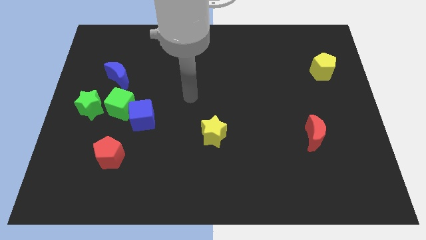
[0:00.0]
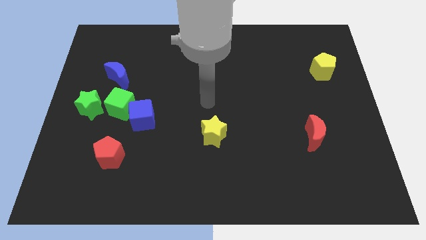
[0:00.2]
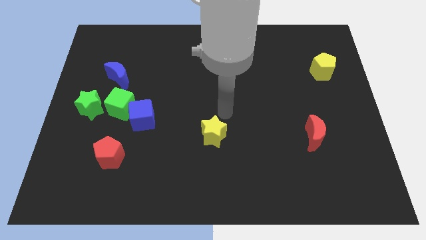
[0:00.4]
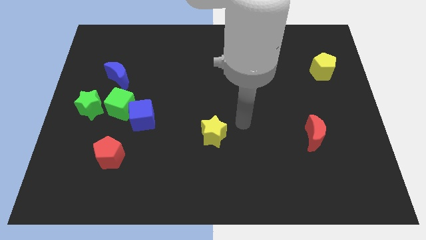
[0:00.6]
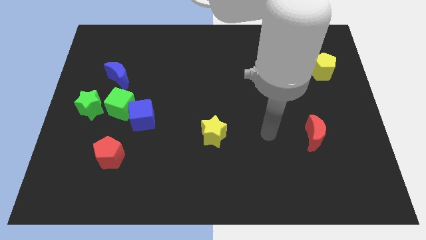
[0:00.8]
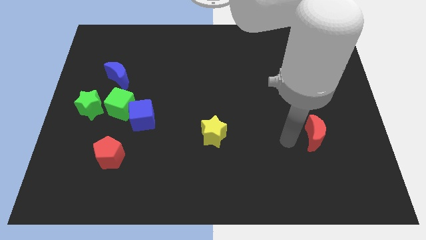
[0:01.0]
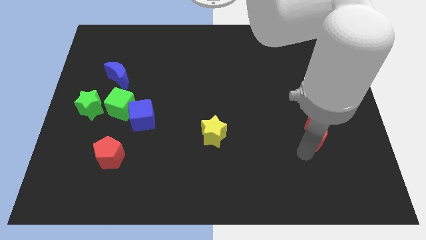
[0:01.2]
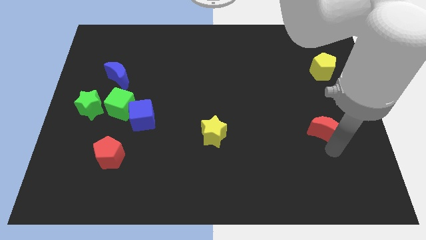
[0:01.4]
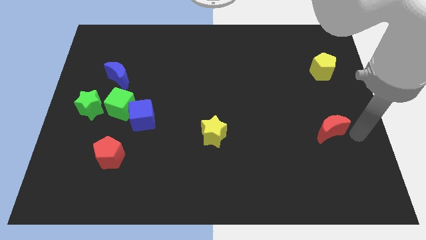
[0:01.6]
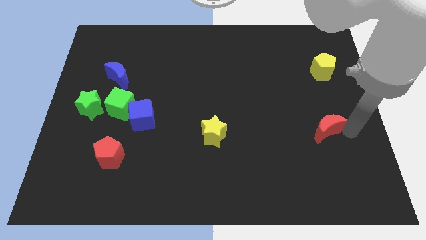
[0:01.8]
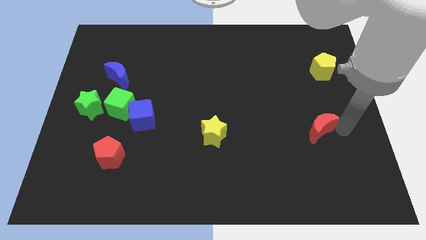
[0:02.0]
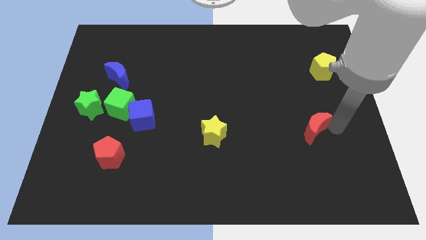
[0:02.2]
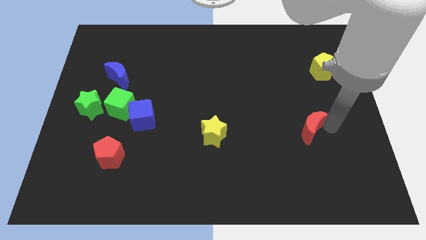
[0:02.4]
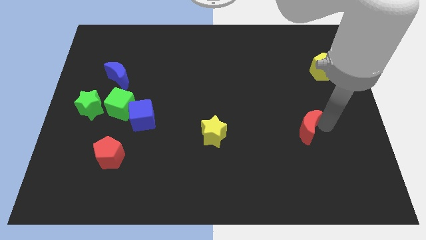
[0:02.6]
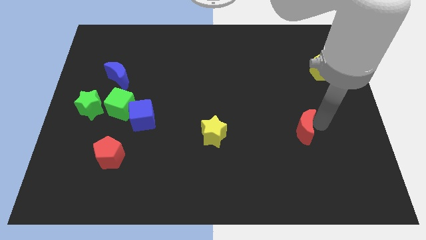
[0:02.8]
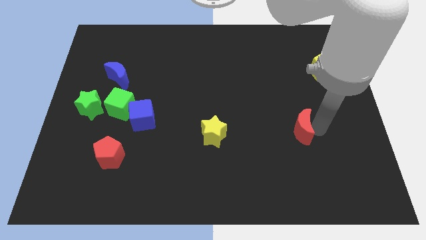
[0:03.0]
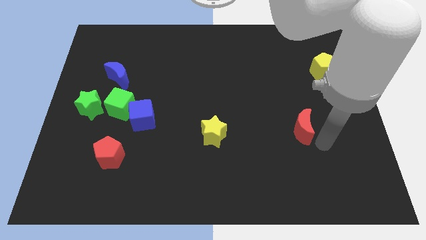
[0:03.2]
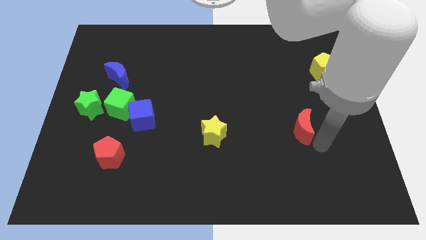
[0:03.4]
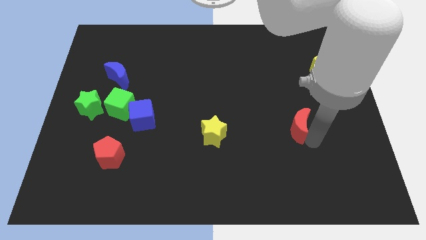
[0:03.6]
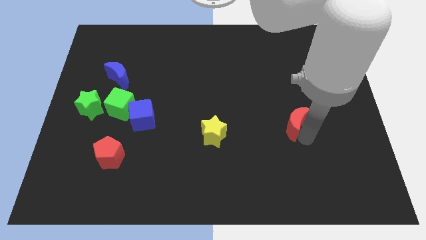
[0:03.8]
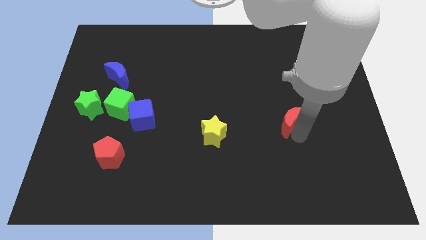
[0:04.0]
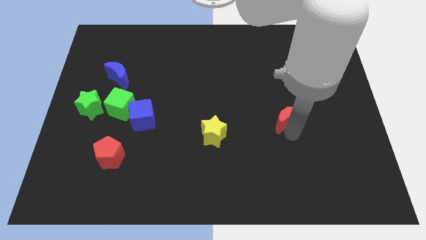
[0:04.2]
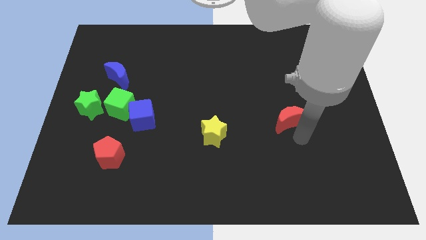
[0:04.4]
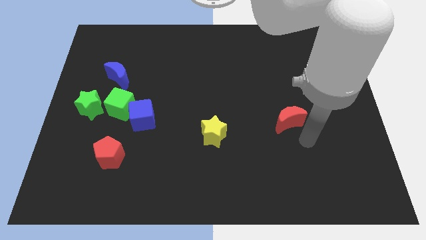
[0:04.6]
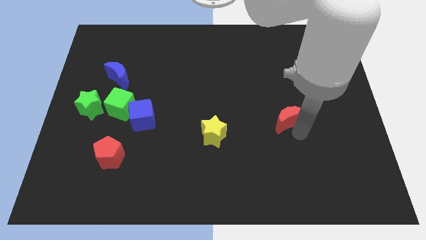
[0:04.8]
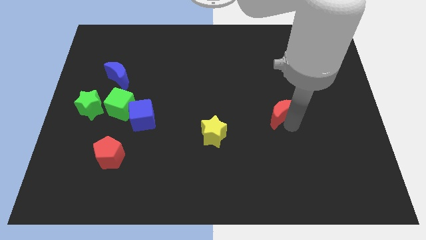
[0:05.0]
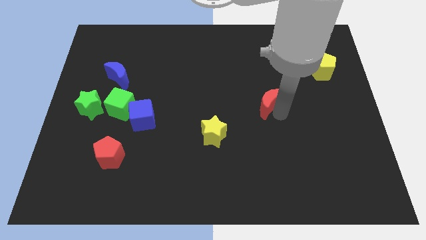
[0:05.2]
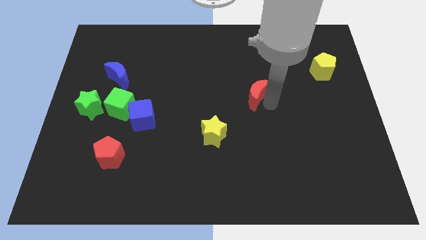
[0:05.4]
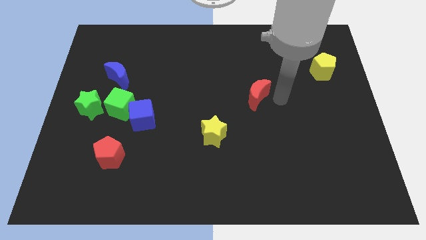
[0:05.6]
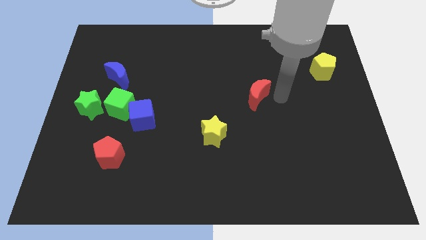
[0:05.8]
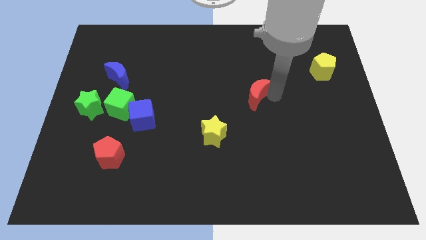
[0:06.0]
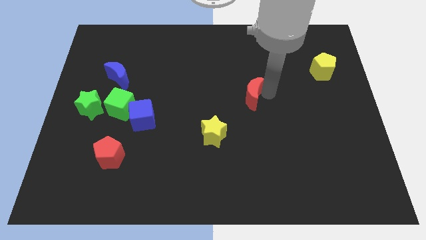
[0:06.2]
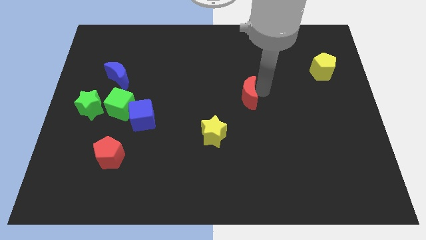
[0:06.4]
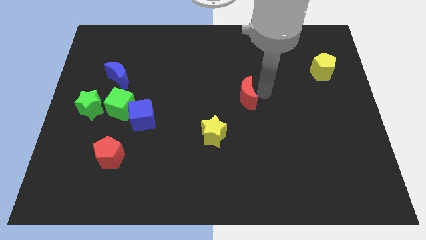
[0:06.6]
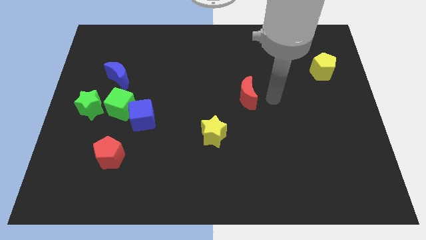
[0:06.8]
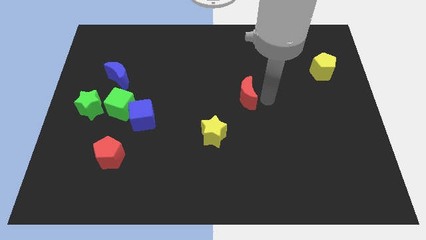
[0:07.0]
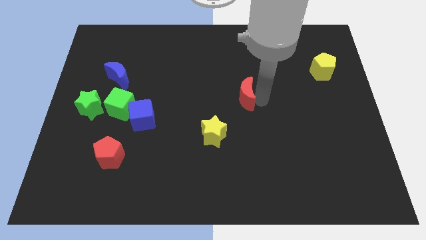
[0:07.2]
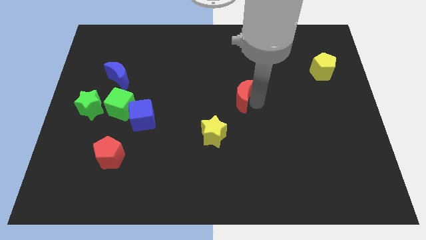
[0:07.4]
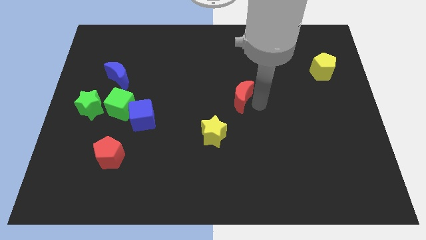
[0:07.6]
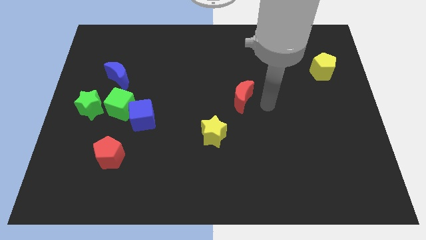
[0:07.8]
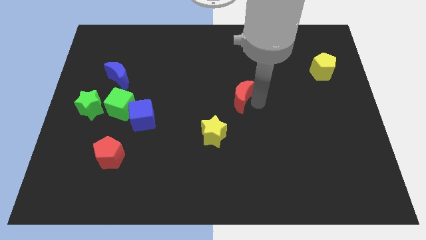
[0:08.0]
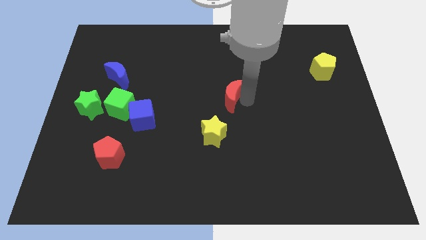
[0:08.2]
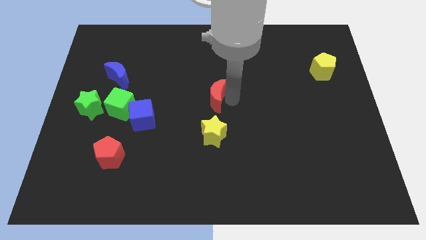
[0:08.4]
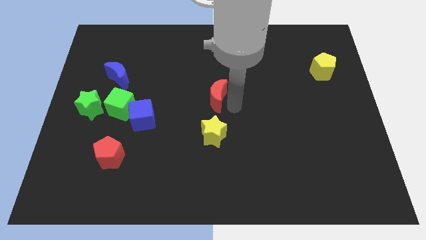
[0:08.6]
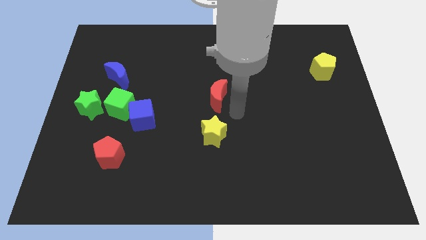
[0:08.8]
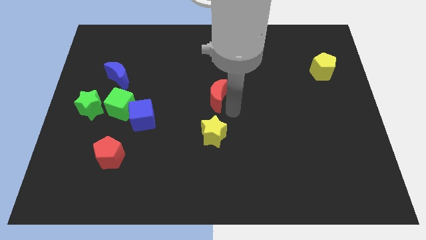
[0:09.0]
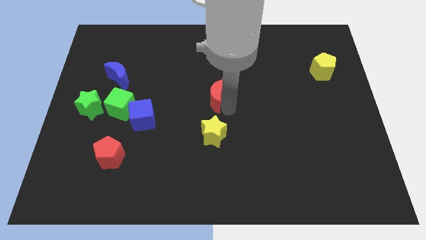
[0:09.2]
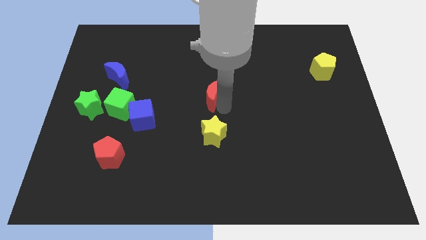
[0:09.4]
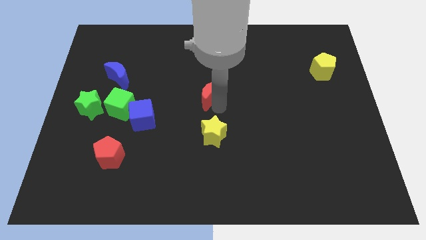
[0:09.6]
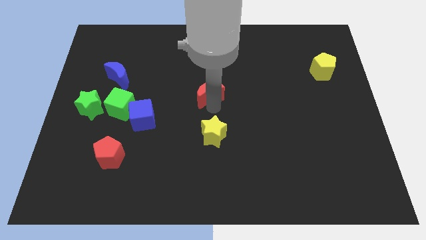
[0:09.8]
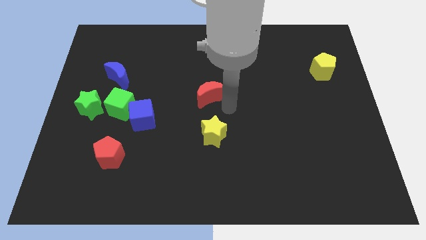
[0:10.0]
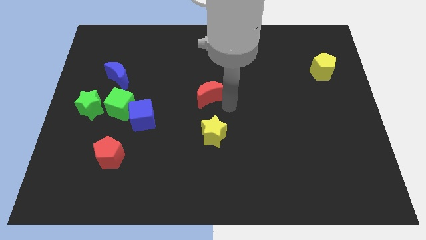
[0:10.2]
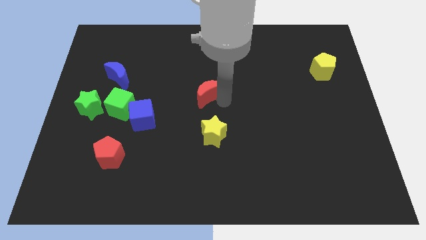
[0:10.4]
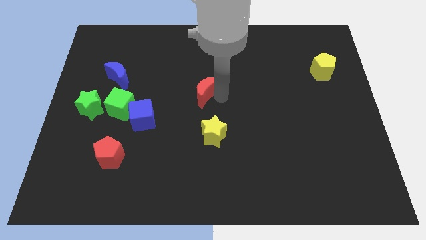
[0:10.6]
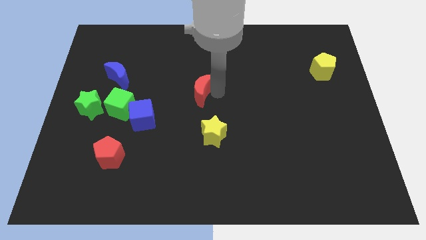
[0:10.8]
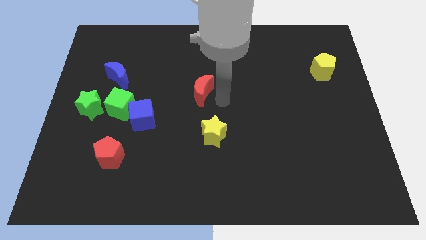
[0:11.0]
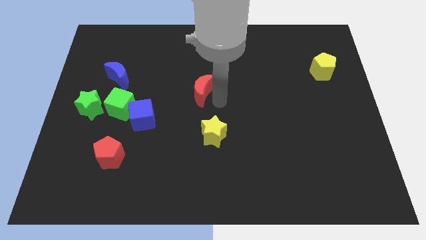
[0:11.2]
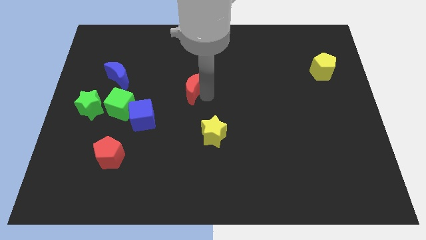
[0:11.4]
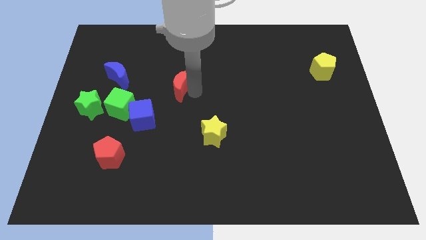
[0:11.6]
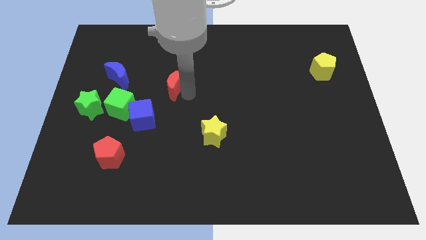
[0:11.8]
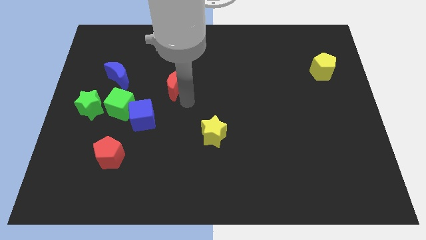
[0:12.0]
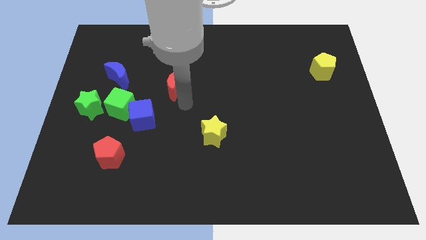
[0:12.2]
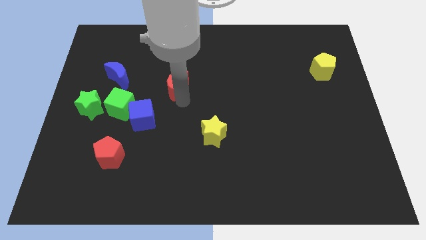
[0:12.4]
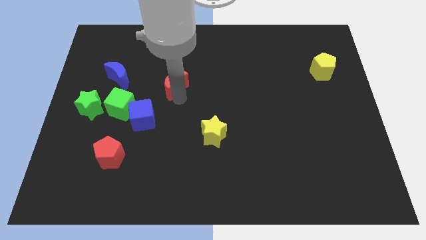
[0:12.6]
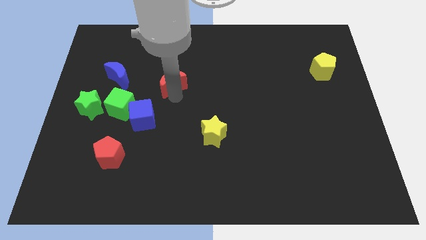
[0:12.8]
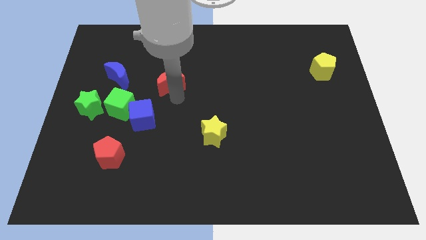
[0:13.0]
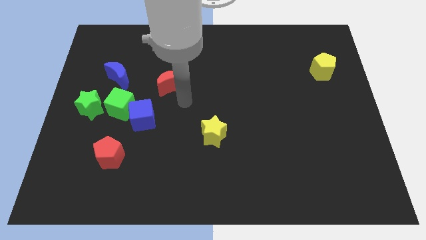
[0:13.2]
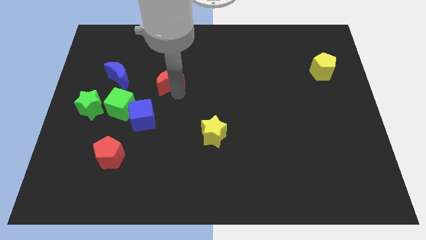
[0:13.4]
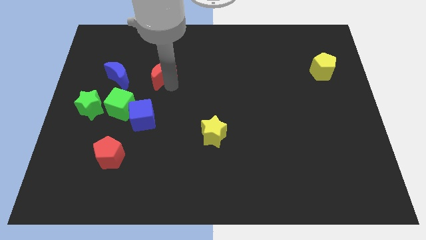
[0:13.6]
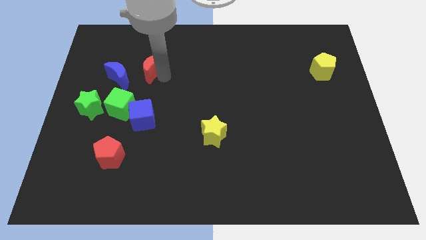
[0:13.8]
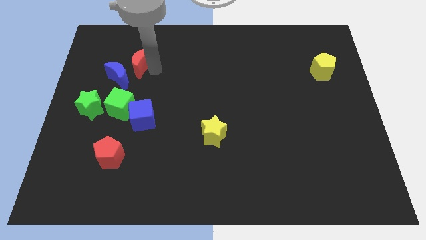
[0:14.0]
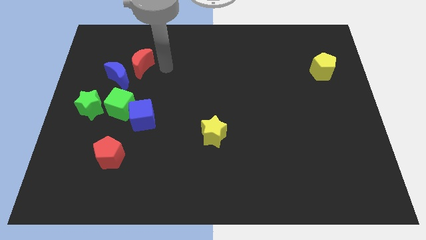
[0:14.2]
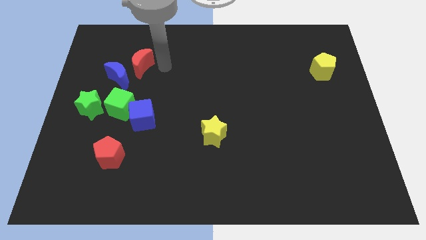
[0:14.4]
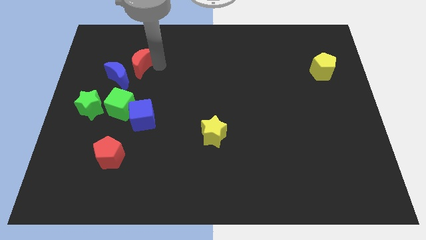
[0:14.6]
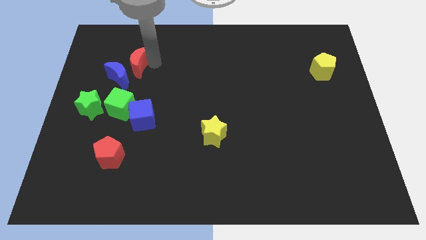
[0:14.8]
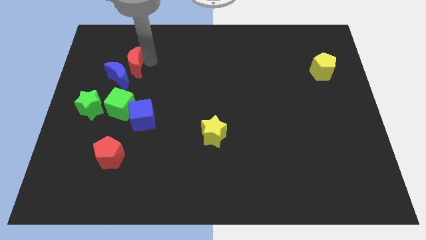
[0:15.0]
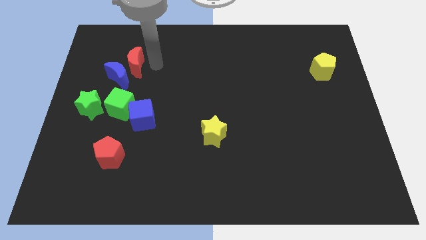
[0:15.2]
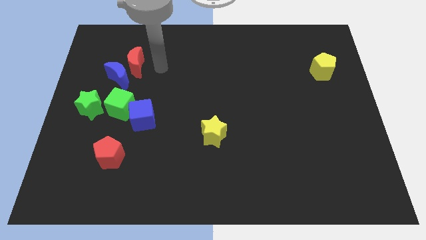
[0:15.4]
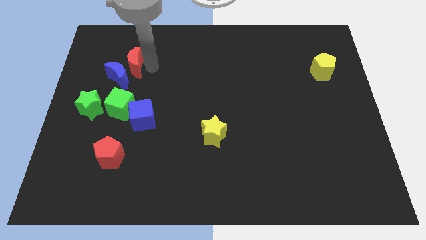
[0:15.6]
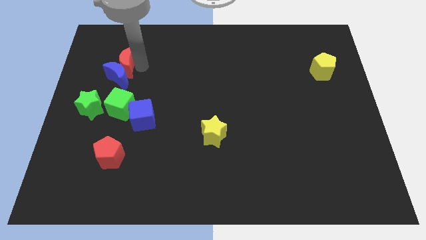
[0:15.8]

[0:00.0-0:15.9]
move the red moon diagonally up and to the left of the blue moon
